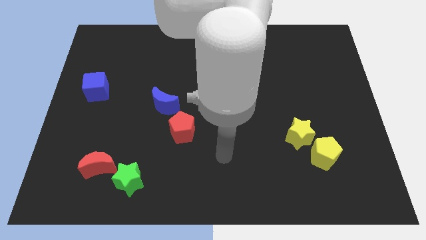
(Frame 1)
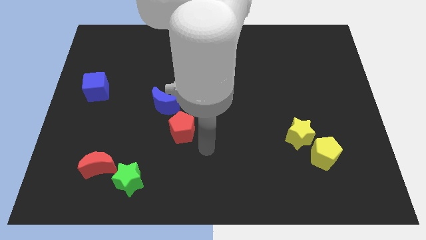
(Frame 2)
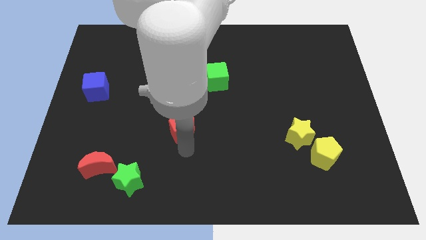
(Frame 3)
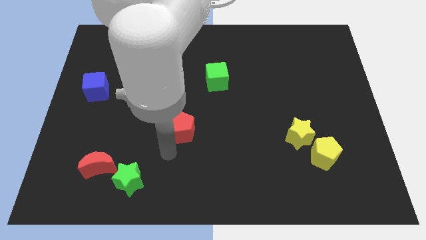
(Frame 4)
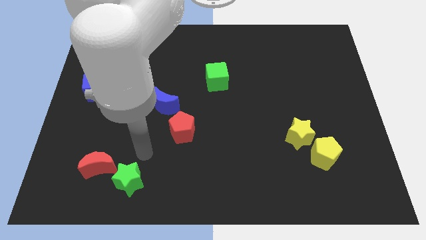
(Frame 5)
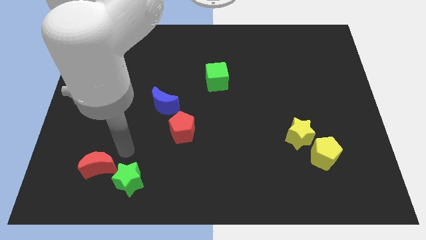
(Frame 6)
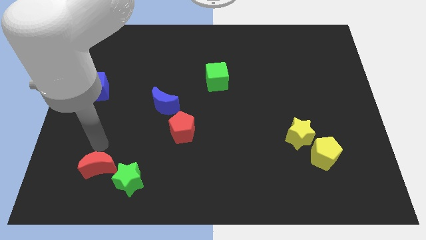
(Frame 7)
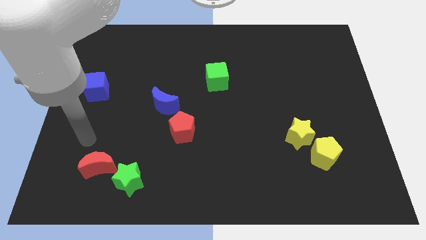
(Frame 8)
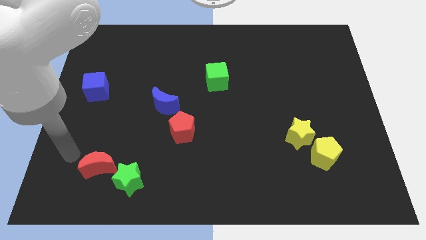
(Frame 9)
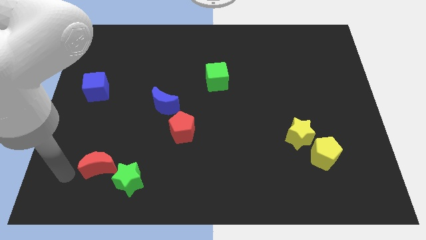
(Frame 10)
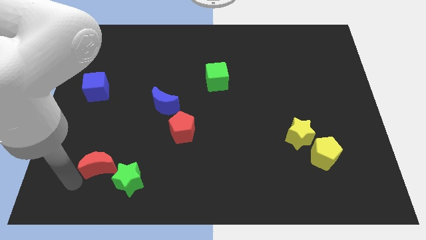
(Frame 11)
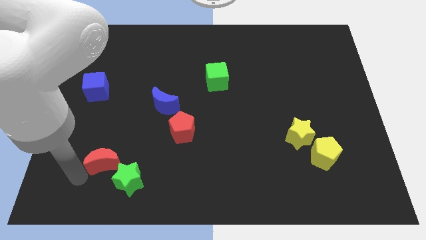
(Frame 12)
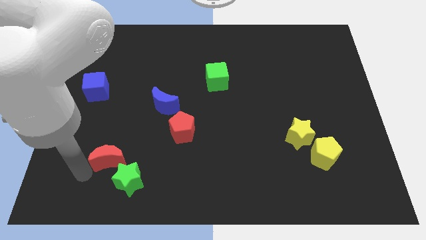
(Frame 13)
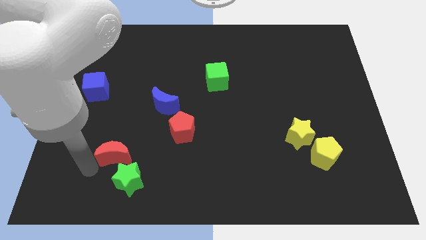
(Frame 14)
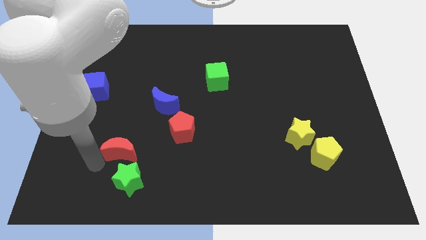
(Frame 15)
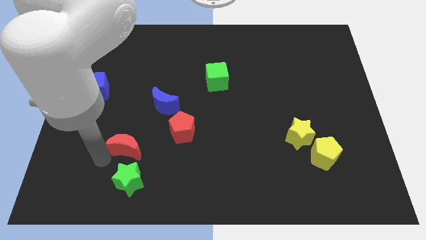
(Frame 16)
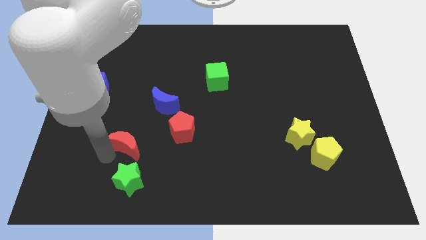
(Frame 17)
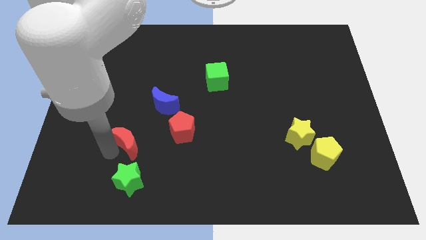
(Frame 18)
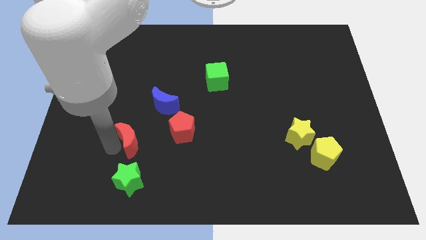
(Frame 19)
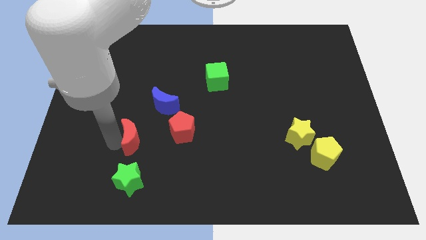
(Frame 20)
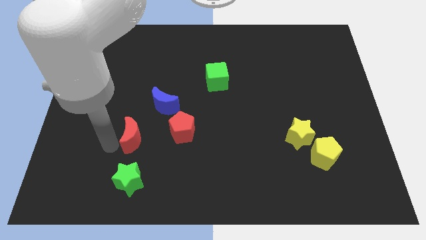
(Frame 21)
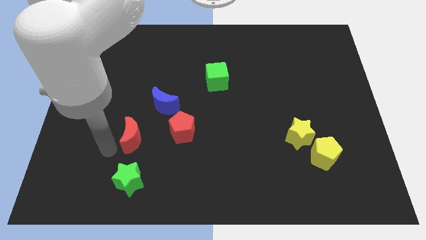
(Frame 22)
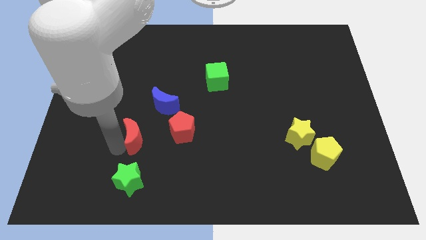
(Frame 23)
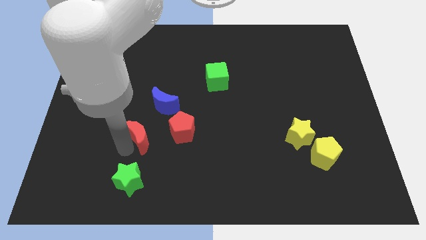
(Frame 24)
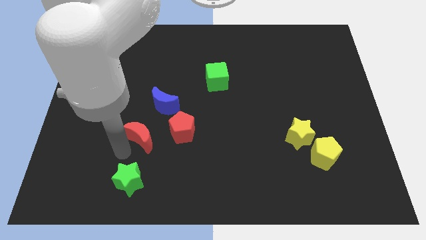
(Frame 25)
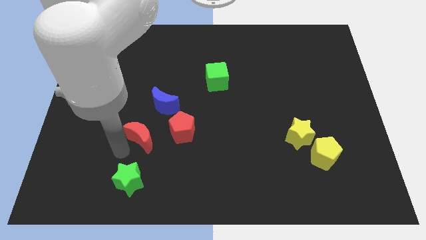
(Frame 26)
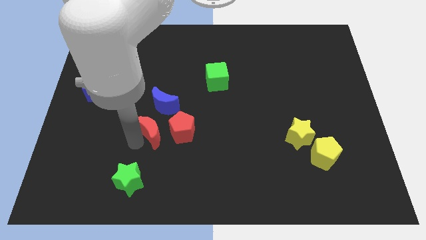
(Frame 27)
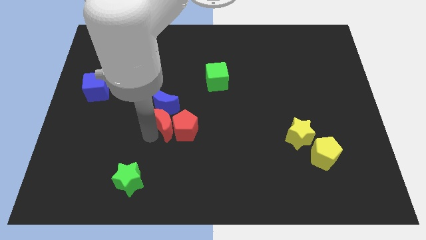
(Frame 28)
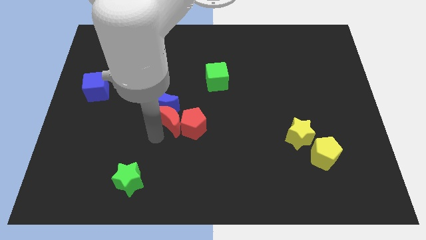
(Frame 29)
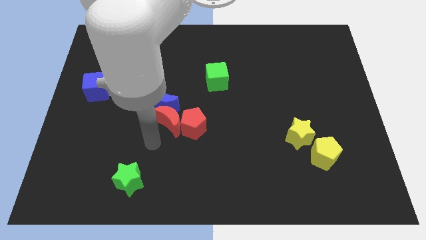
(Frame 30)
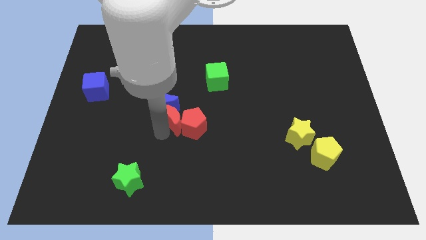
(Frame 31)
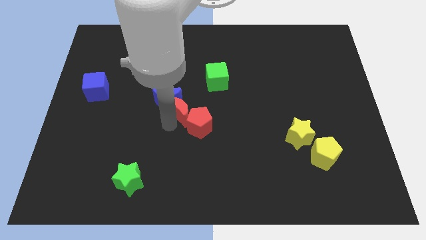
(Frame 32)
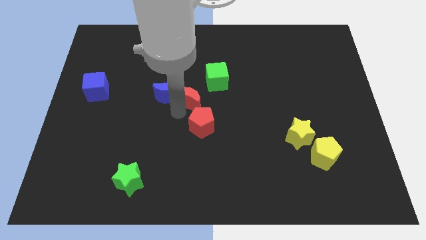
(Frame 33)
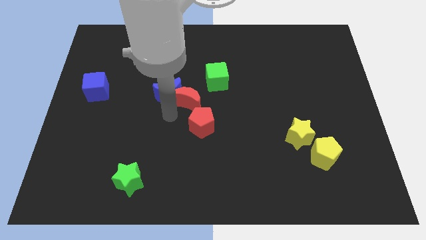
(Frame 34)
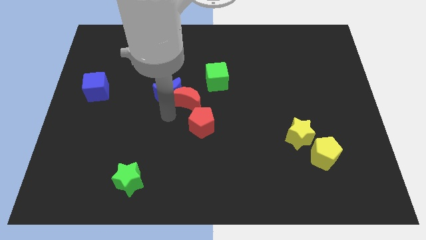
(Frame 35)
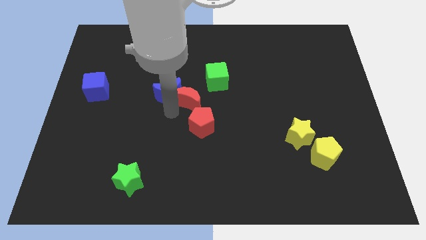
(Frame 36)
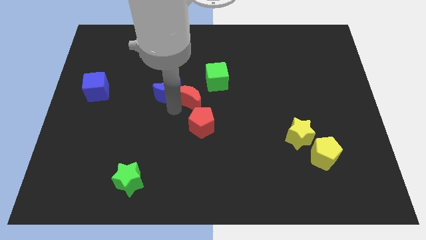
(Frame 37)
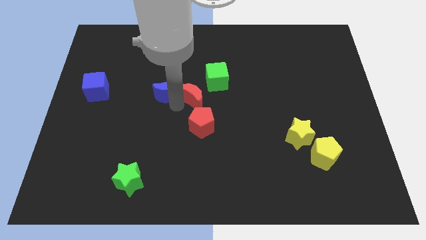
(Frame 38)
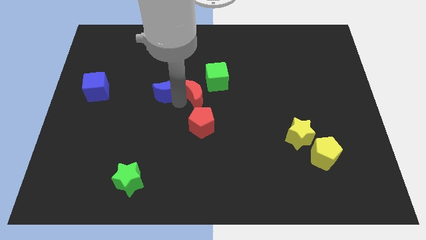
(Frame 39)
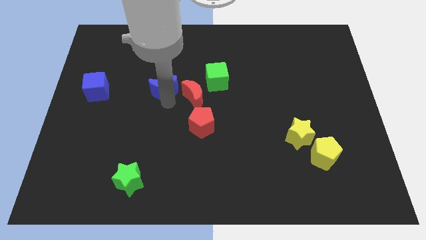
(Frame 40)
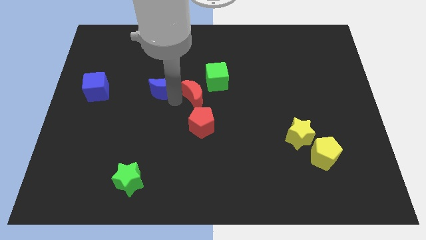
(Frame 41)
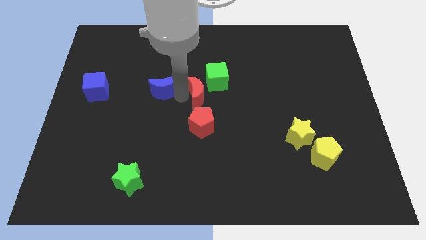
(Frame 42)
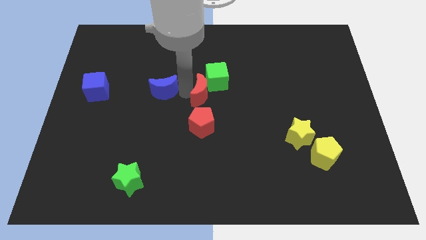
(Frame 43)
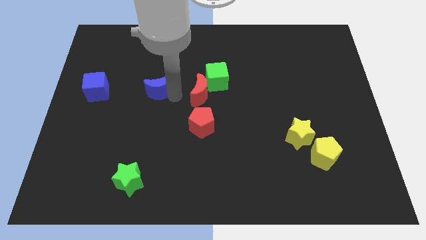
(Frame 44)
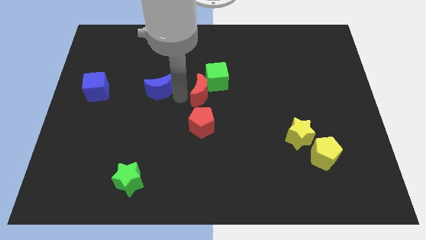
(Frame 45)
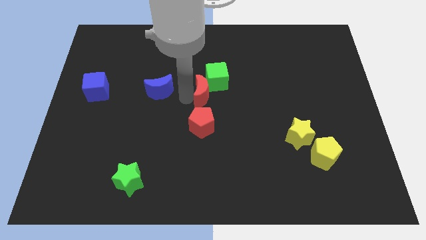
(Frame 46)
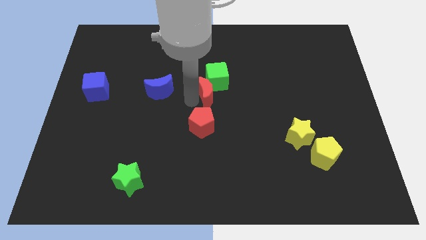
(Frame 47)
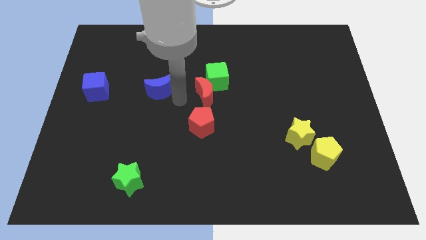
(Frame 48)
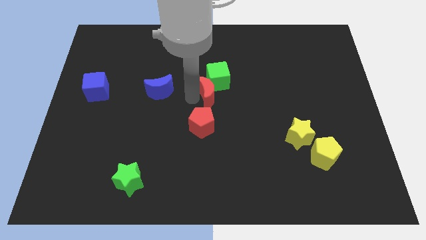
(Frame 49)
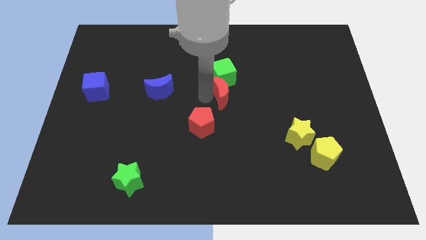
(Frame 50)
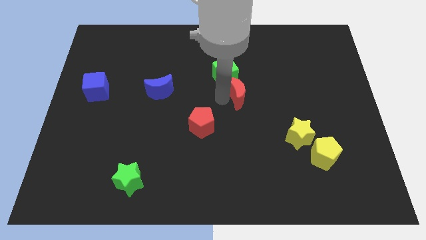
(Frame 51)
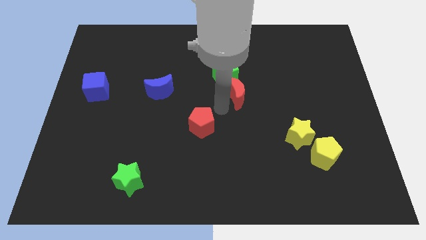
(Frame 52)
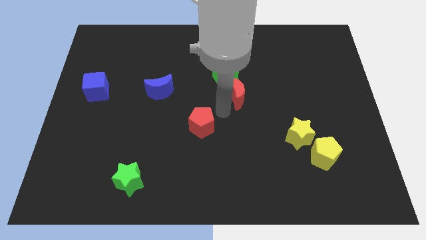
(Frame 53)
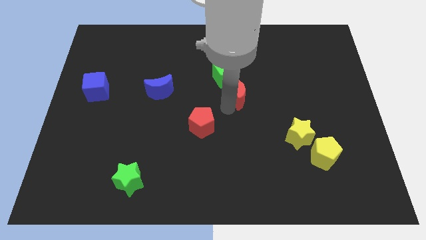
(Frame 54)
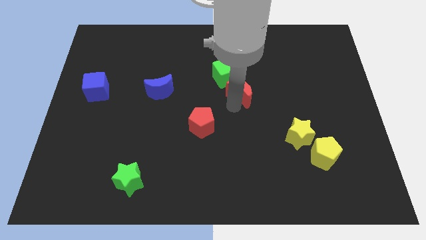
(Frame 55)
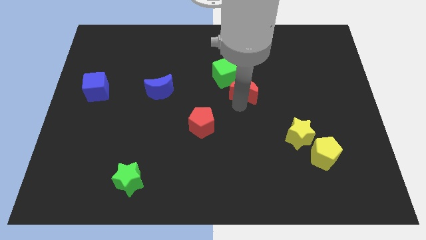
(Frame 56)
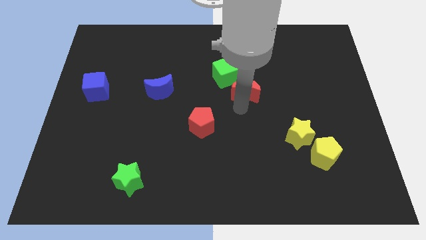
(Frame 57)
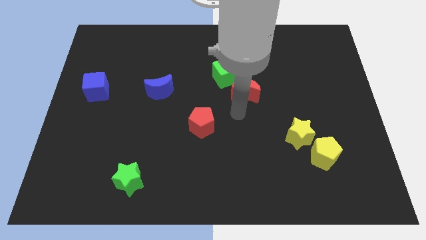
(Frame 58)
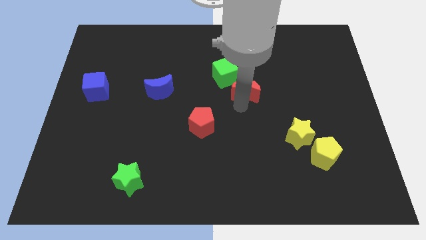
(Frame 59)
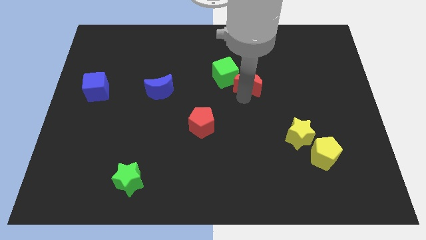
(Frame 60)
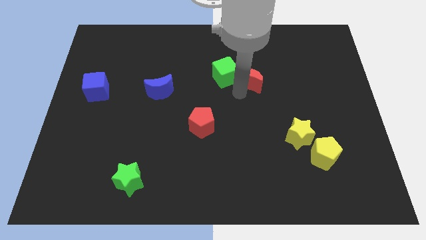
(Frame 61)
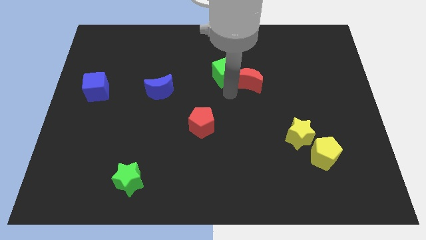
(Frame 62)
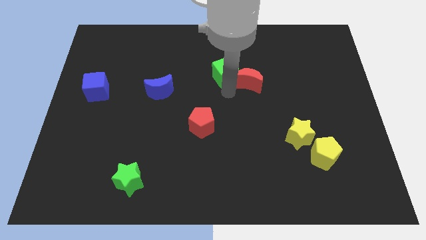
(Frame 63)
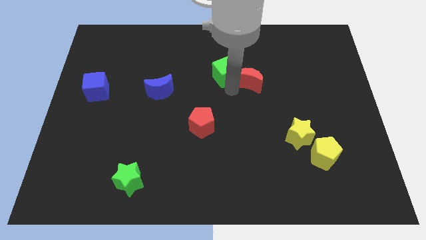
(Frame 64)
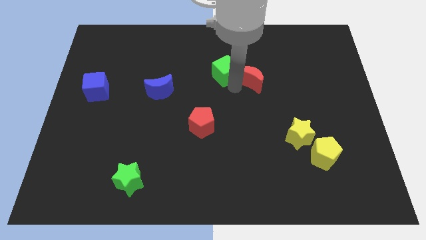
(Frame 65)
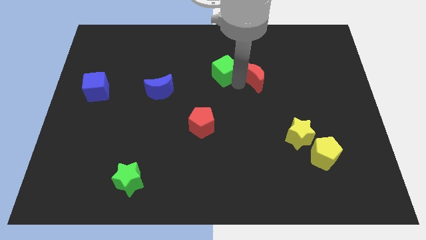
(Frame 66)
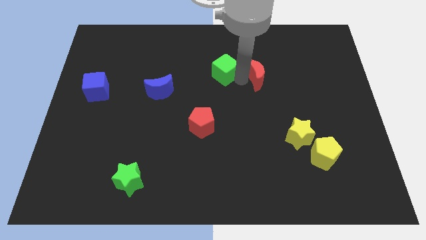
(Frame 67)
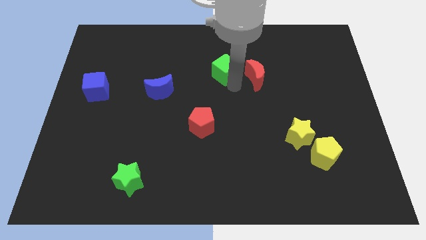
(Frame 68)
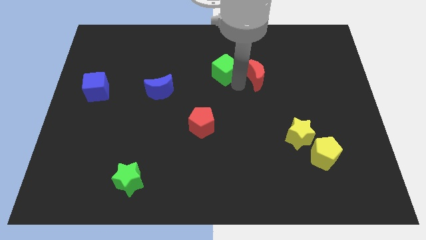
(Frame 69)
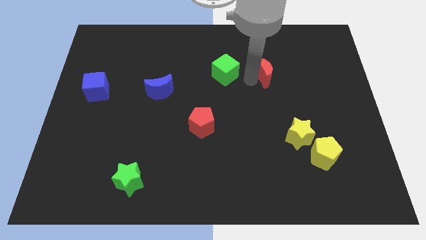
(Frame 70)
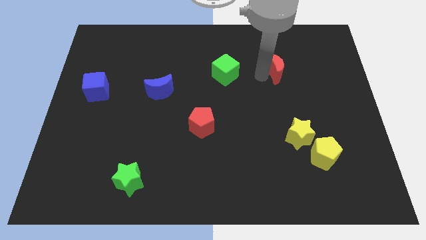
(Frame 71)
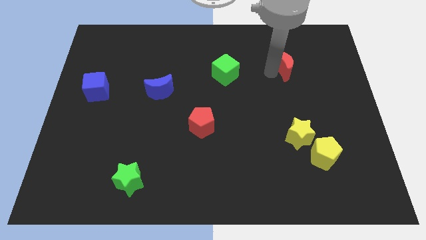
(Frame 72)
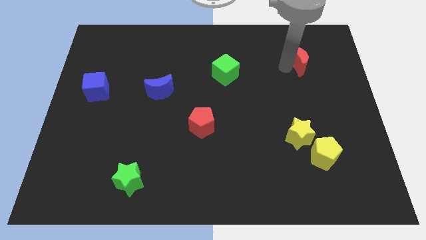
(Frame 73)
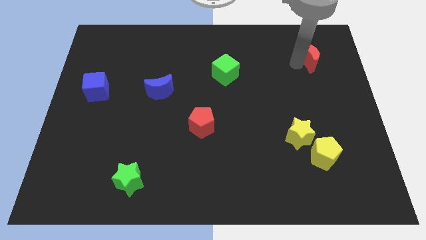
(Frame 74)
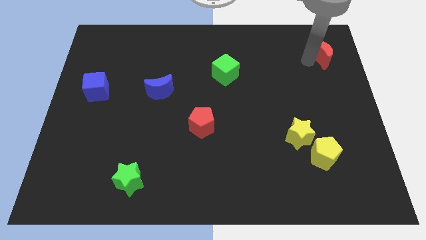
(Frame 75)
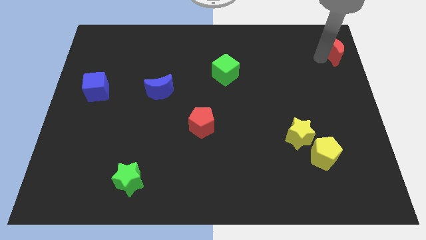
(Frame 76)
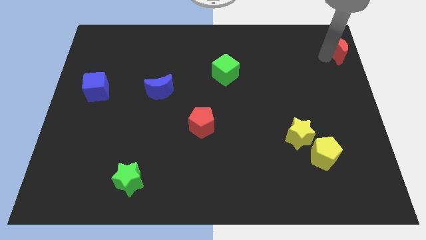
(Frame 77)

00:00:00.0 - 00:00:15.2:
slide the red moon to the top right of the board
